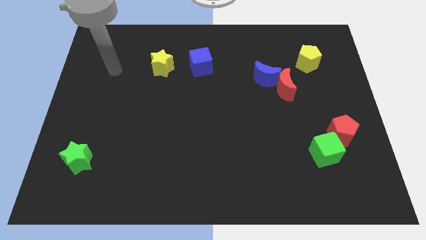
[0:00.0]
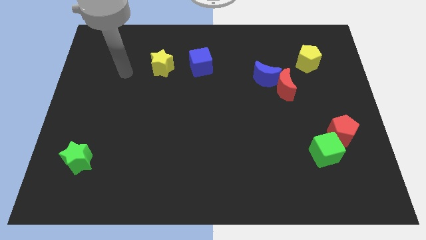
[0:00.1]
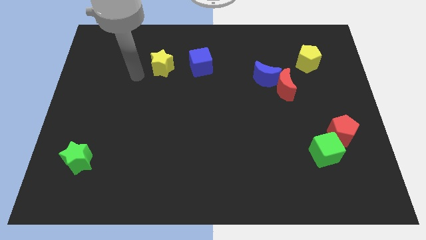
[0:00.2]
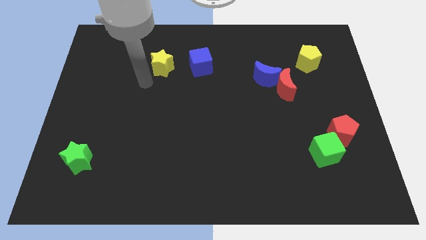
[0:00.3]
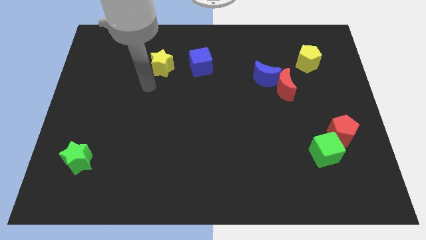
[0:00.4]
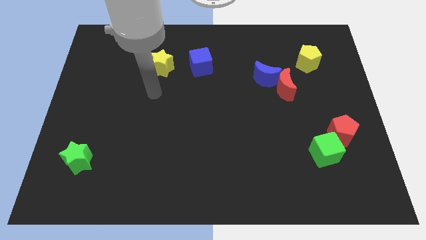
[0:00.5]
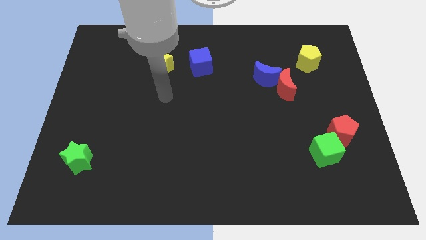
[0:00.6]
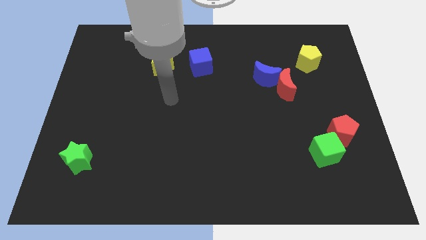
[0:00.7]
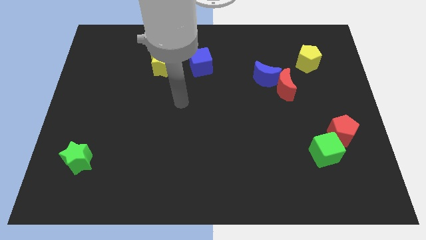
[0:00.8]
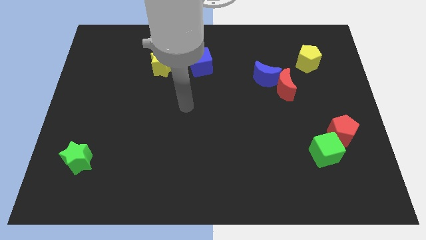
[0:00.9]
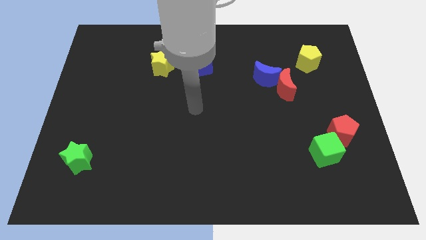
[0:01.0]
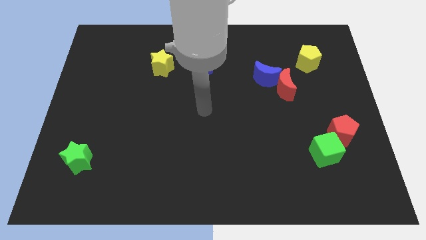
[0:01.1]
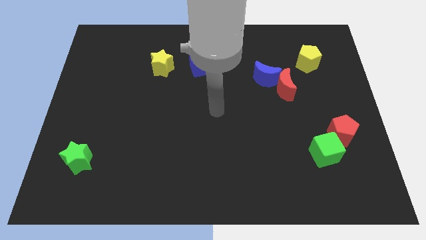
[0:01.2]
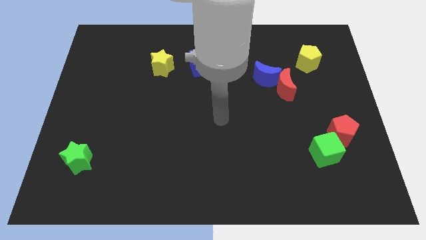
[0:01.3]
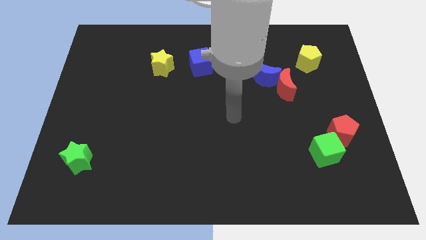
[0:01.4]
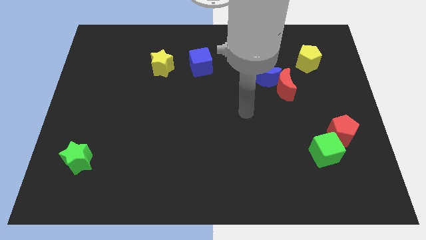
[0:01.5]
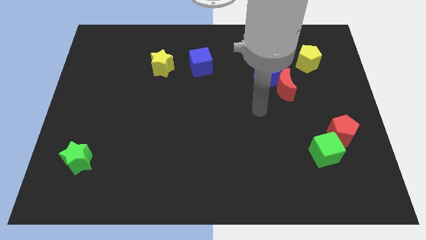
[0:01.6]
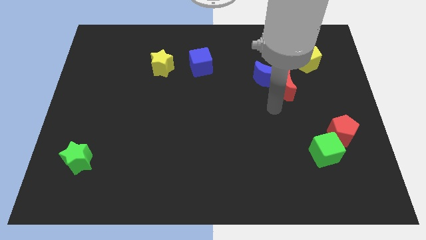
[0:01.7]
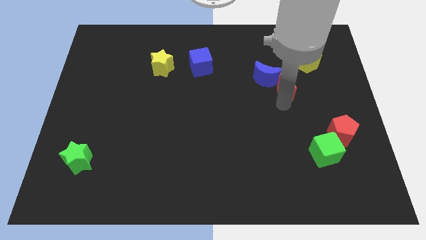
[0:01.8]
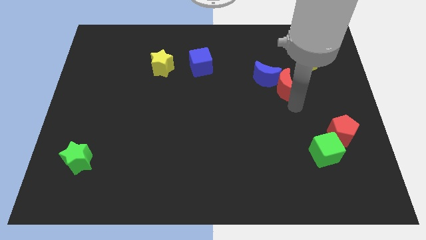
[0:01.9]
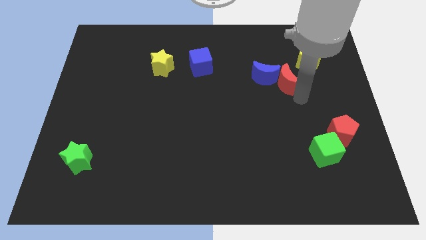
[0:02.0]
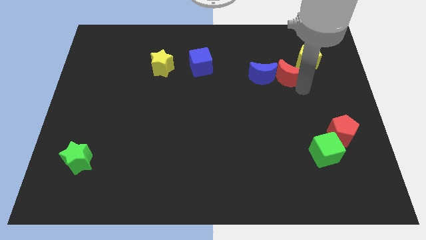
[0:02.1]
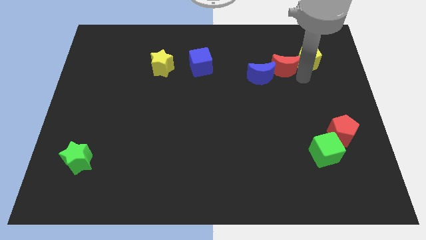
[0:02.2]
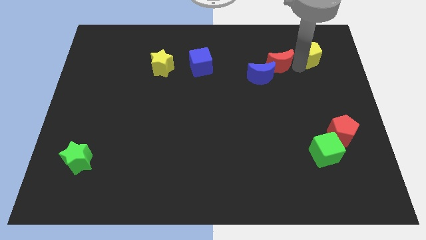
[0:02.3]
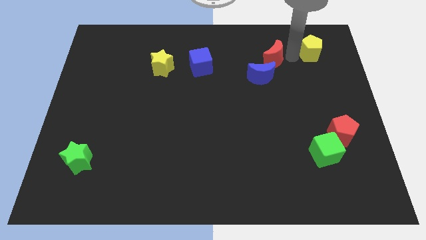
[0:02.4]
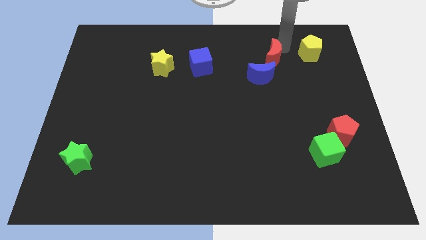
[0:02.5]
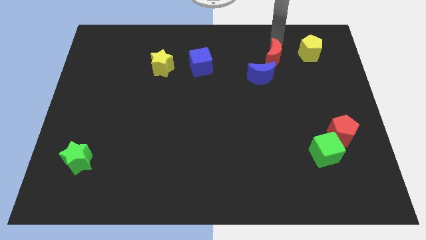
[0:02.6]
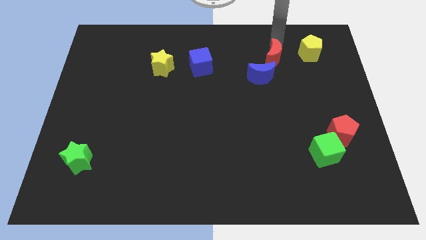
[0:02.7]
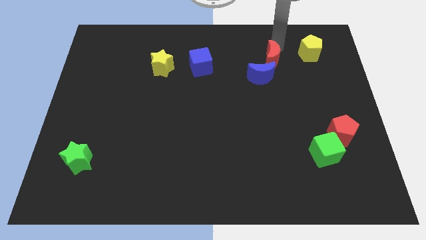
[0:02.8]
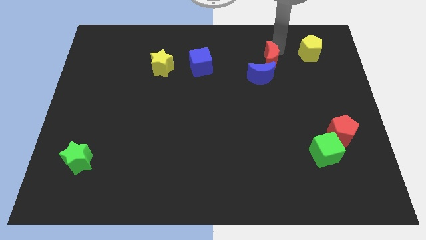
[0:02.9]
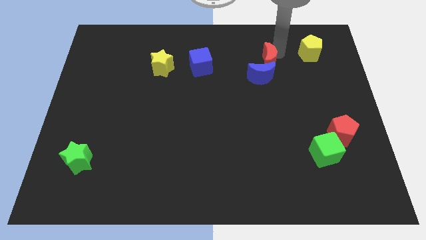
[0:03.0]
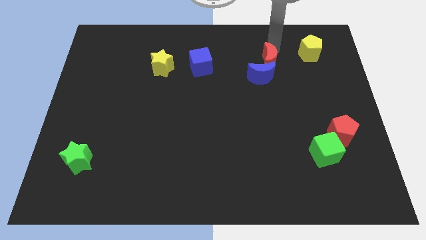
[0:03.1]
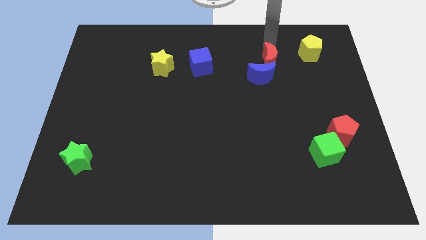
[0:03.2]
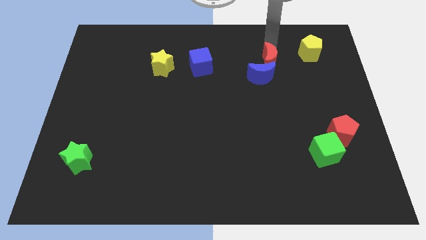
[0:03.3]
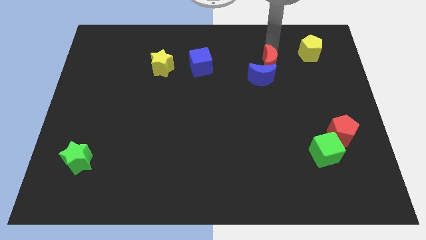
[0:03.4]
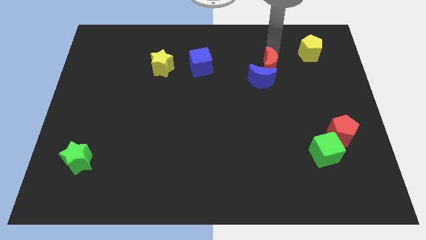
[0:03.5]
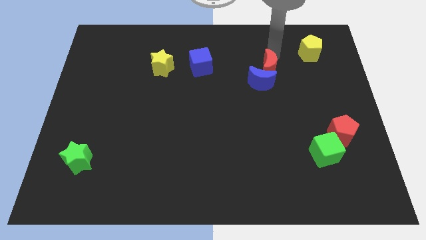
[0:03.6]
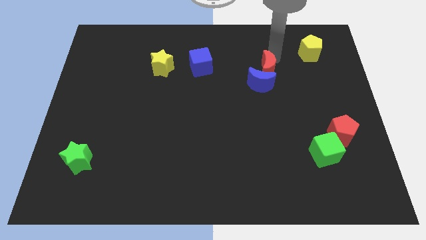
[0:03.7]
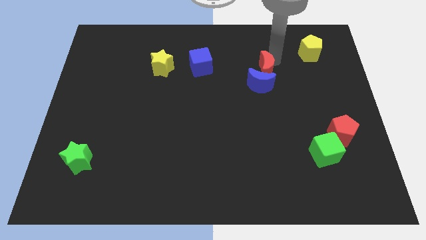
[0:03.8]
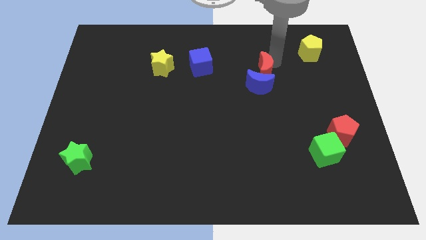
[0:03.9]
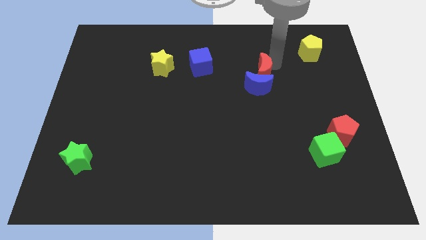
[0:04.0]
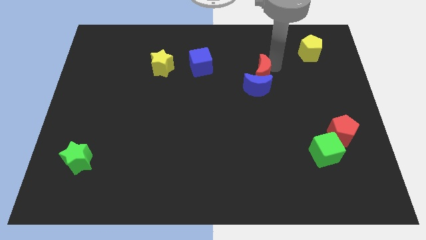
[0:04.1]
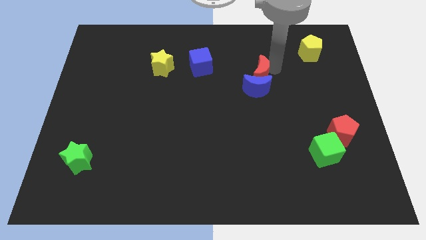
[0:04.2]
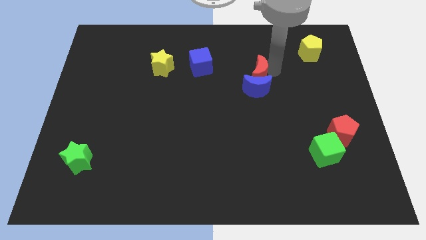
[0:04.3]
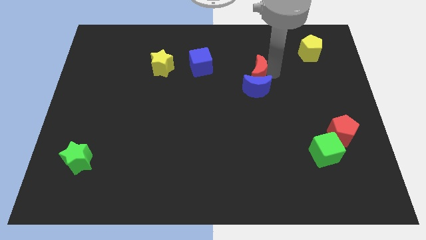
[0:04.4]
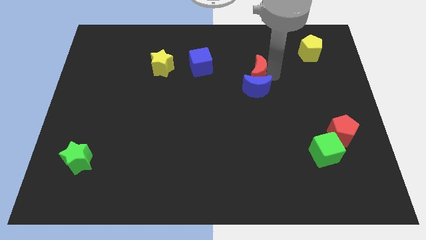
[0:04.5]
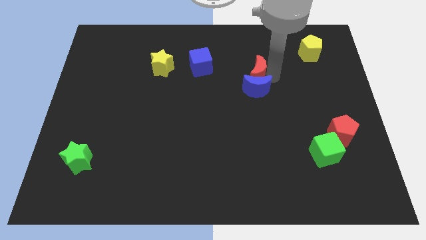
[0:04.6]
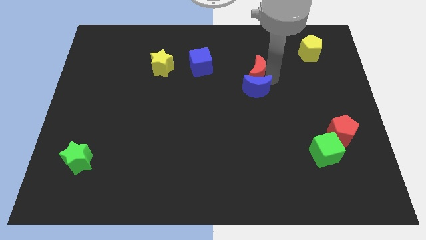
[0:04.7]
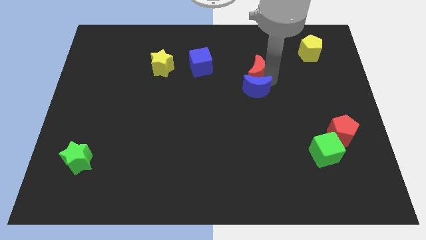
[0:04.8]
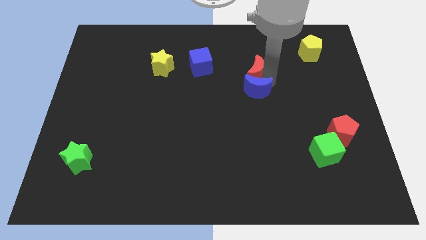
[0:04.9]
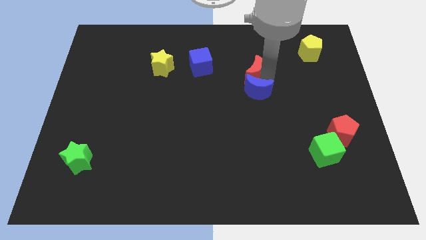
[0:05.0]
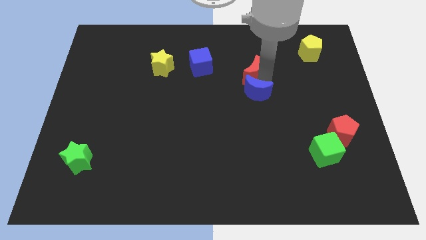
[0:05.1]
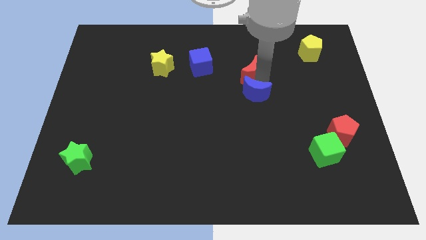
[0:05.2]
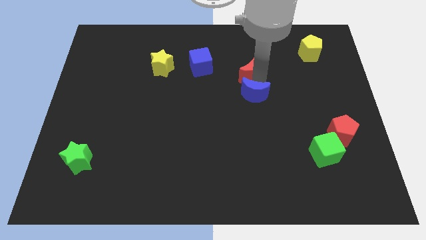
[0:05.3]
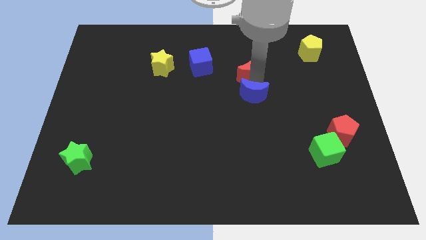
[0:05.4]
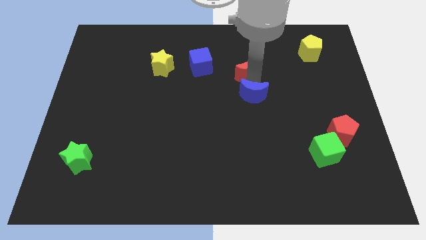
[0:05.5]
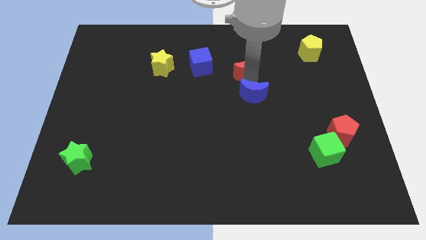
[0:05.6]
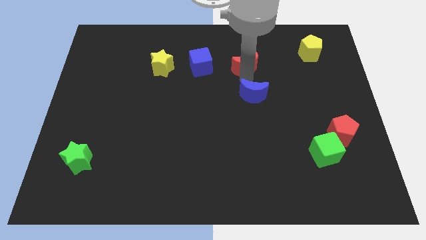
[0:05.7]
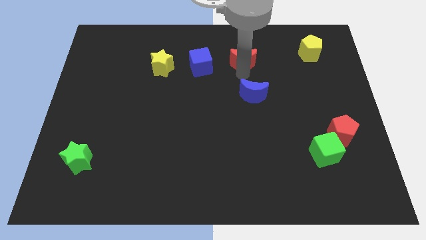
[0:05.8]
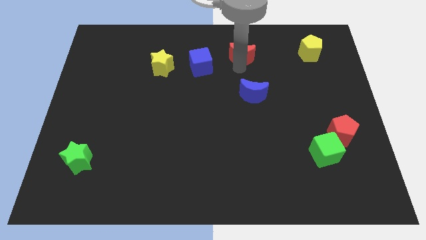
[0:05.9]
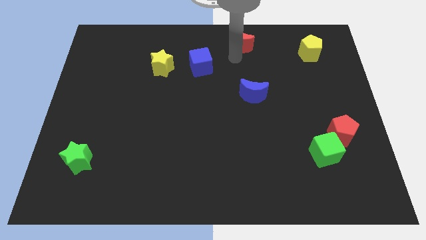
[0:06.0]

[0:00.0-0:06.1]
slide the red moon to the top
